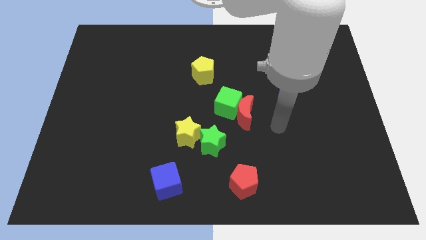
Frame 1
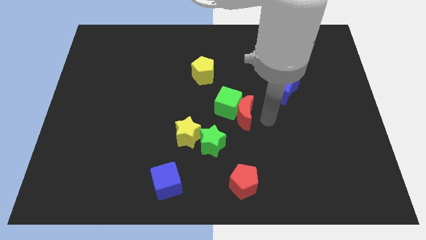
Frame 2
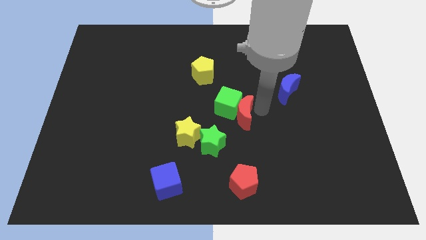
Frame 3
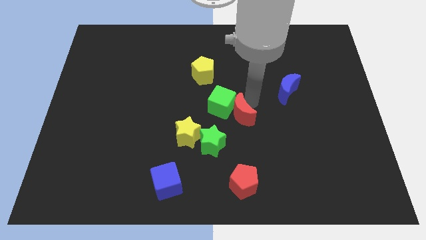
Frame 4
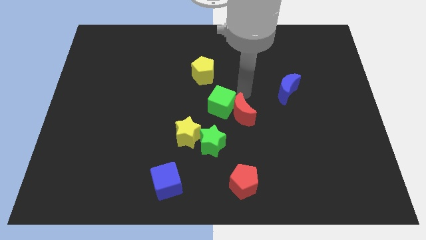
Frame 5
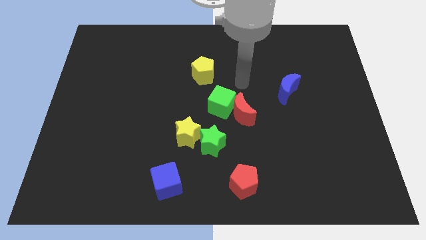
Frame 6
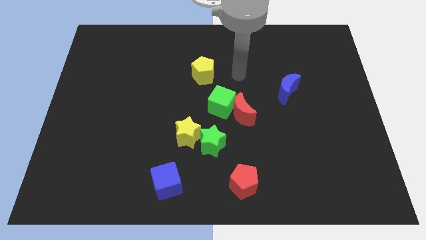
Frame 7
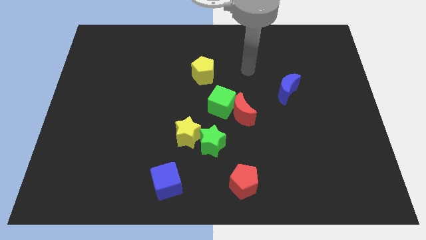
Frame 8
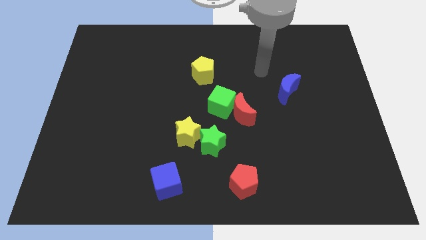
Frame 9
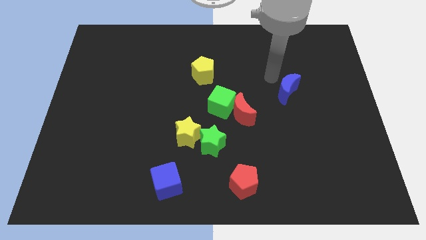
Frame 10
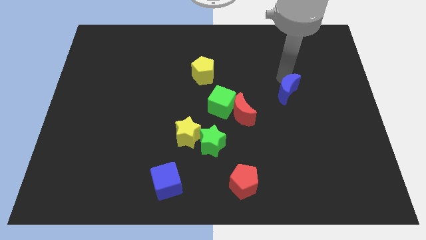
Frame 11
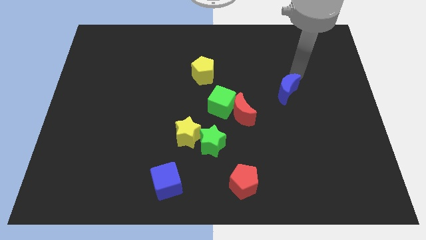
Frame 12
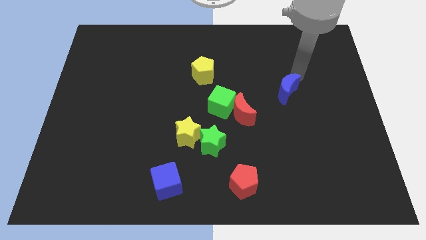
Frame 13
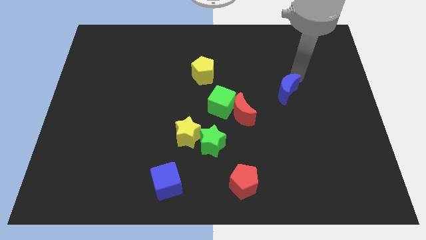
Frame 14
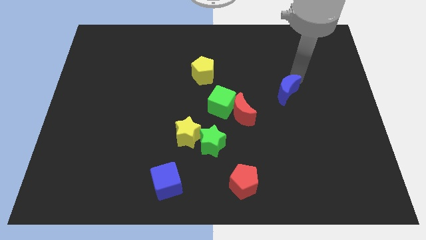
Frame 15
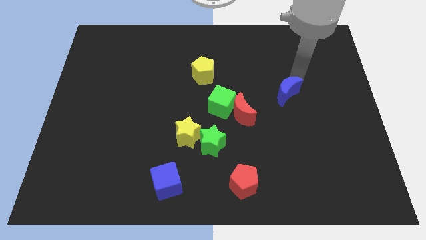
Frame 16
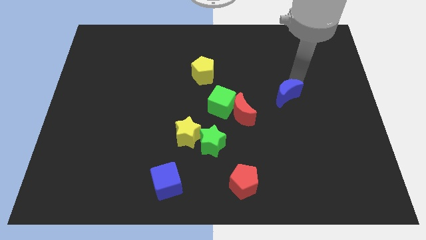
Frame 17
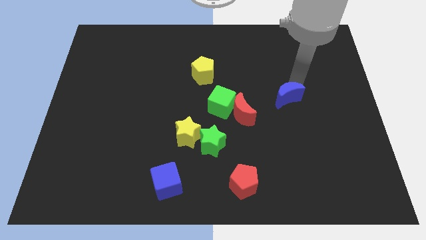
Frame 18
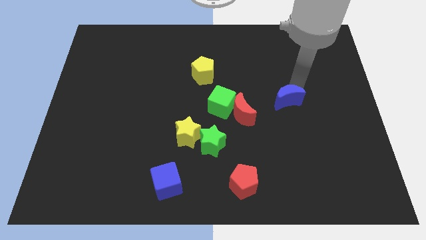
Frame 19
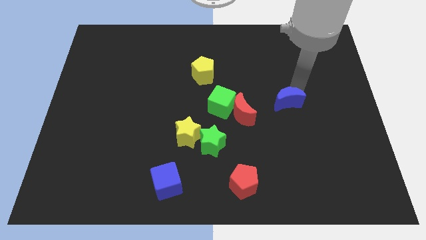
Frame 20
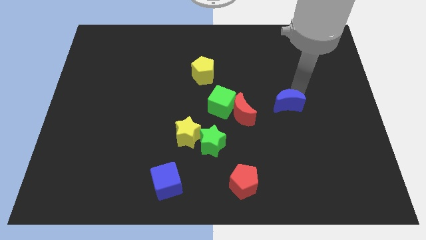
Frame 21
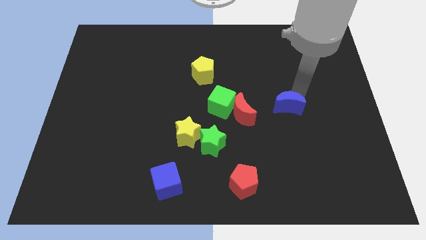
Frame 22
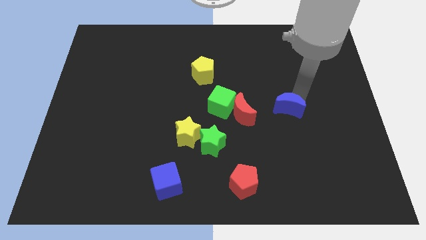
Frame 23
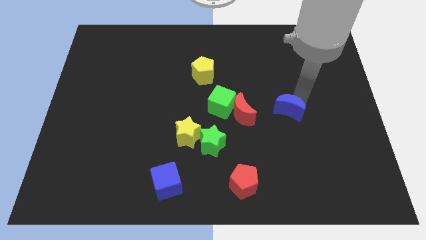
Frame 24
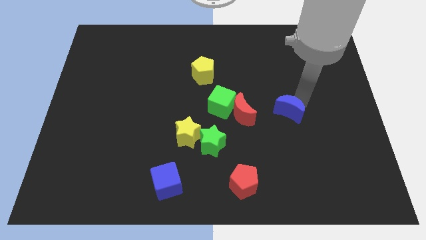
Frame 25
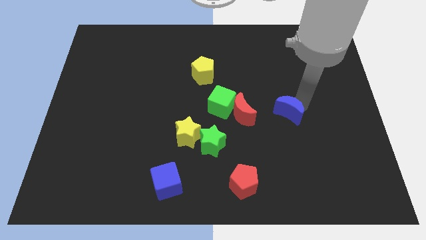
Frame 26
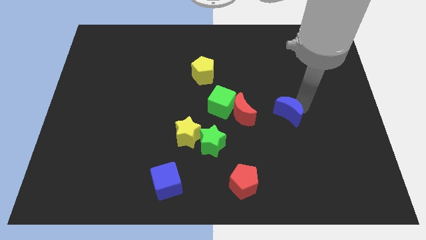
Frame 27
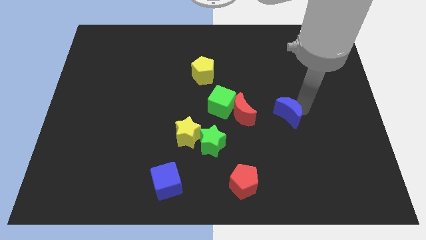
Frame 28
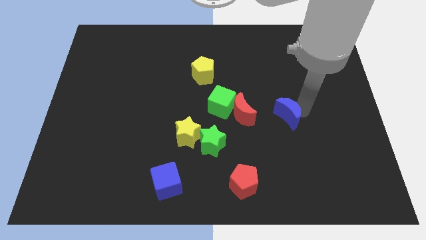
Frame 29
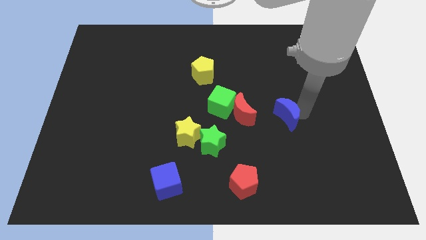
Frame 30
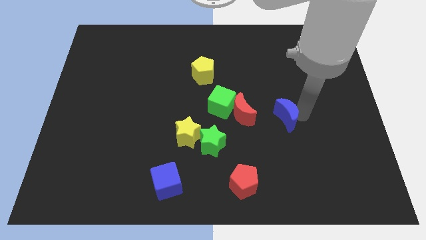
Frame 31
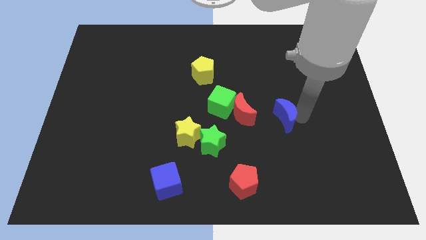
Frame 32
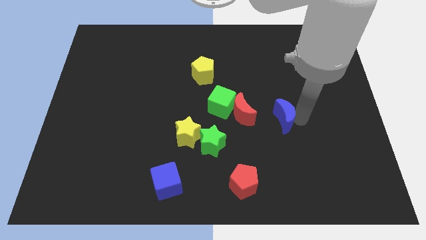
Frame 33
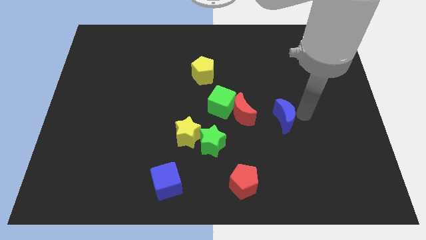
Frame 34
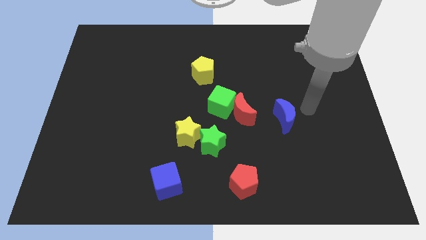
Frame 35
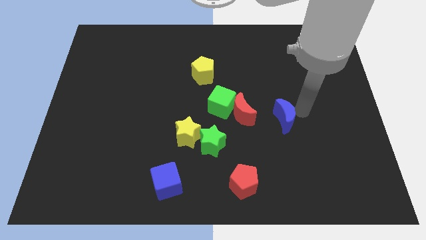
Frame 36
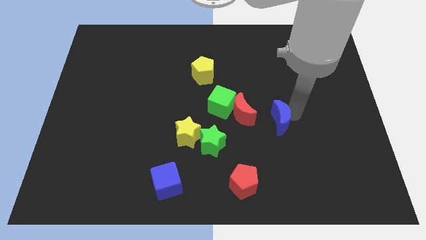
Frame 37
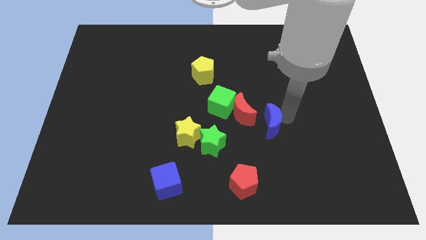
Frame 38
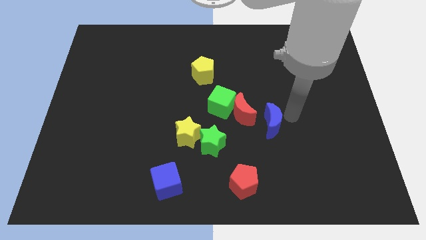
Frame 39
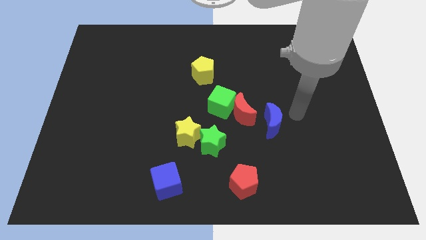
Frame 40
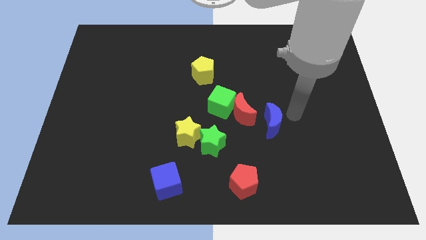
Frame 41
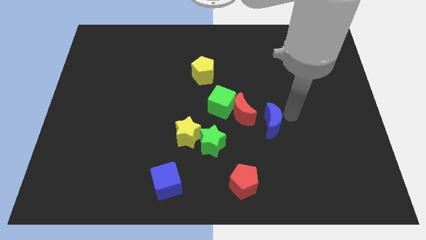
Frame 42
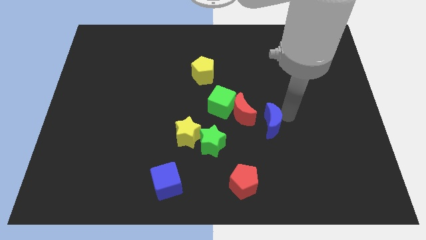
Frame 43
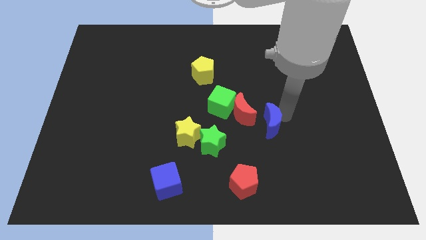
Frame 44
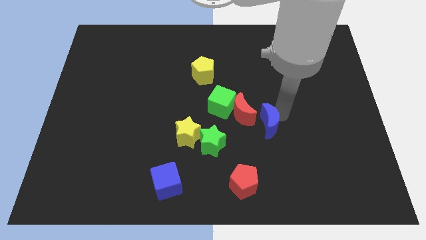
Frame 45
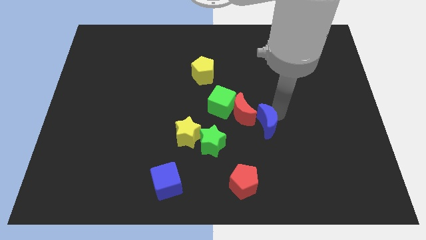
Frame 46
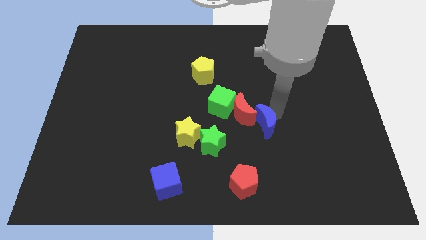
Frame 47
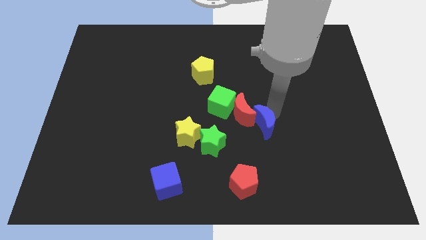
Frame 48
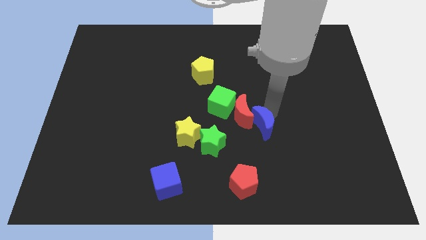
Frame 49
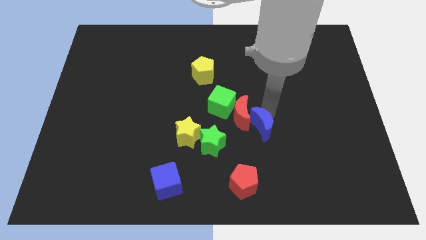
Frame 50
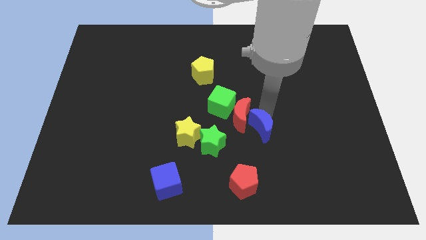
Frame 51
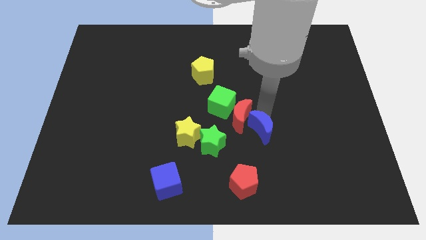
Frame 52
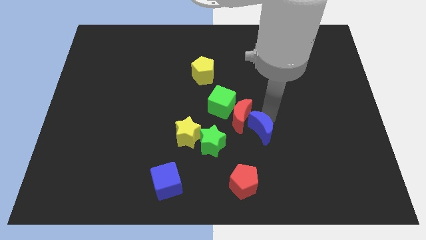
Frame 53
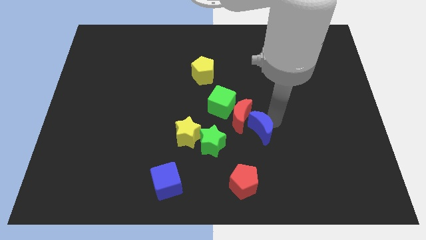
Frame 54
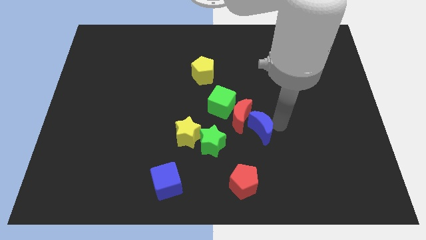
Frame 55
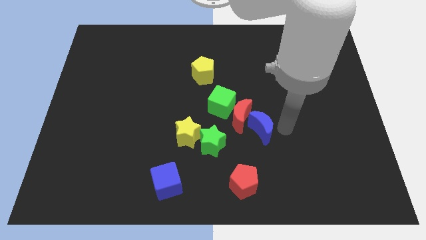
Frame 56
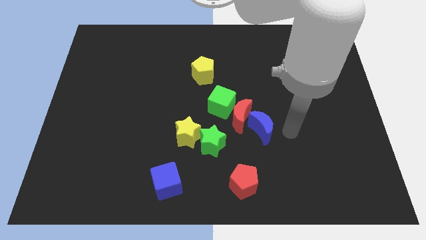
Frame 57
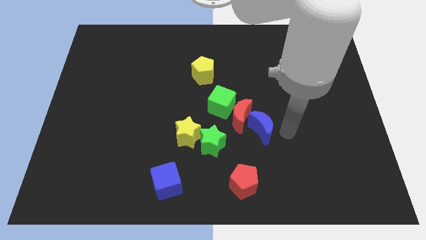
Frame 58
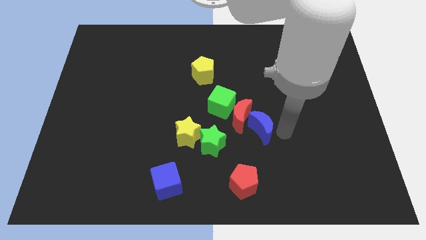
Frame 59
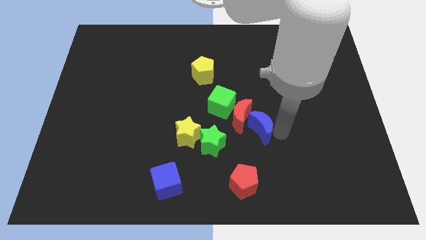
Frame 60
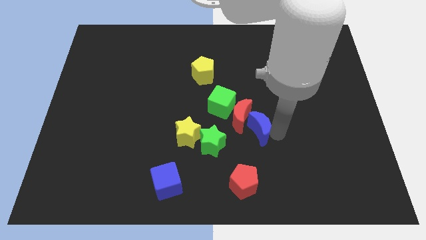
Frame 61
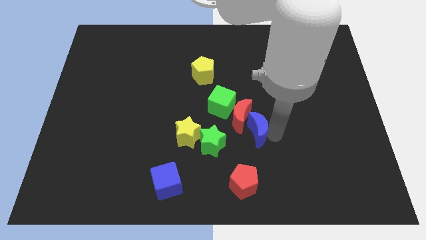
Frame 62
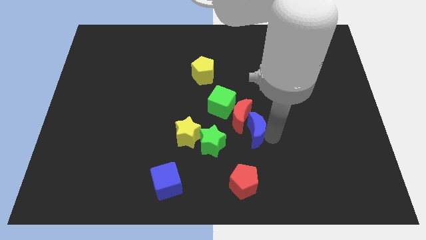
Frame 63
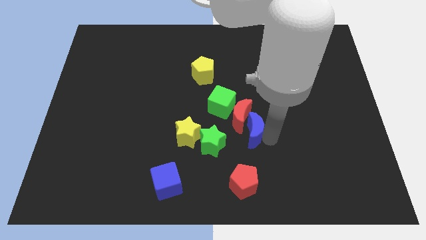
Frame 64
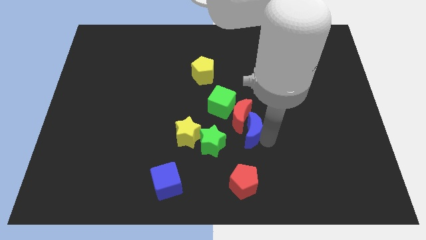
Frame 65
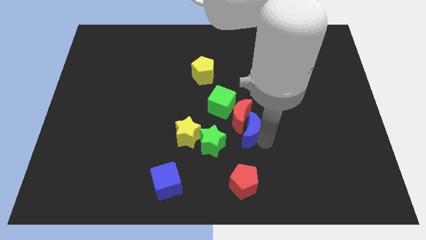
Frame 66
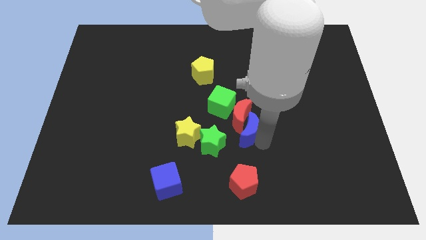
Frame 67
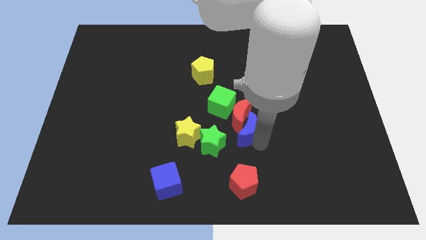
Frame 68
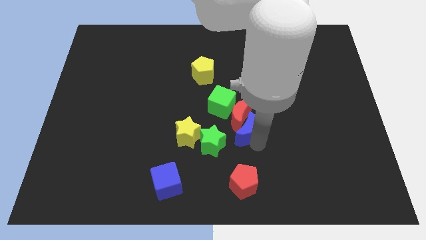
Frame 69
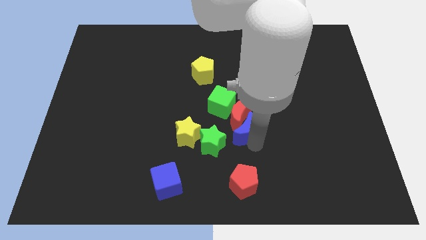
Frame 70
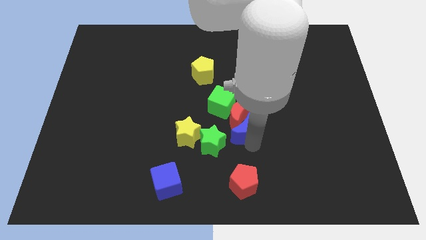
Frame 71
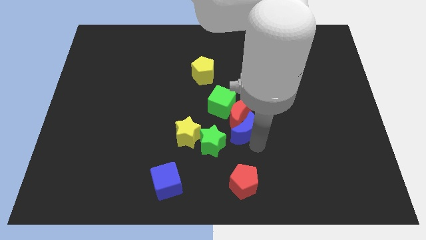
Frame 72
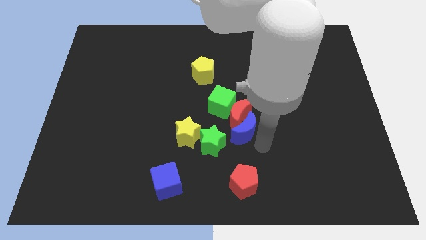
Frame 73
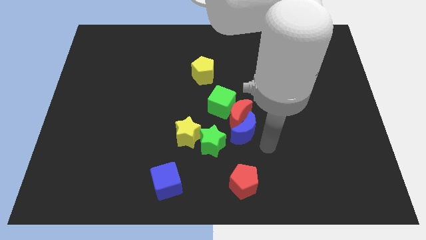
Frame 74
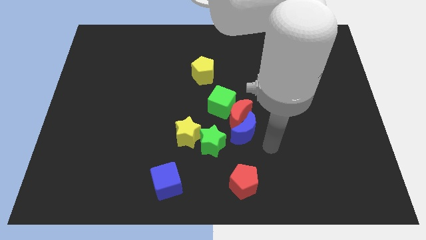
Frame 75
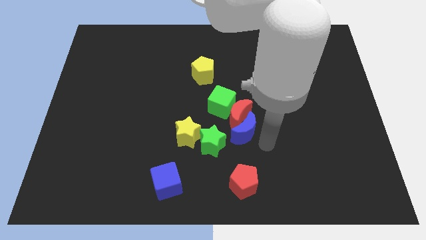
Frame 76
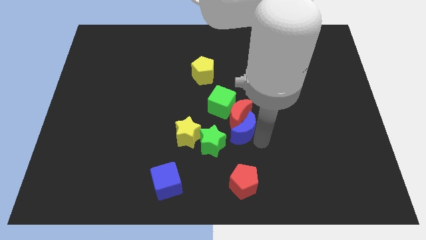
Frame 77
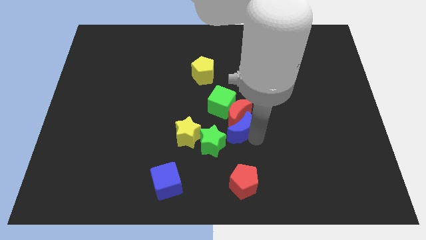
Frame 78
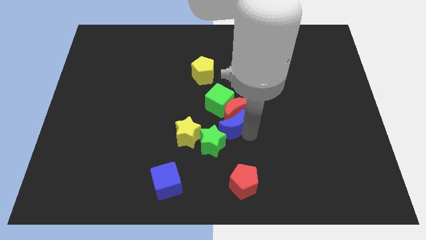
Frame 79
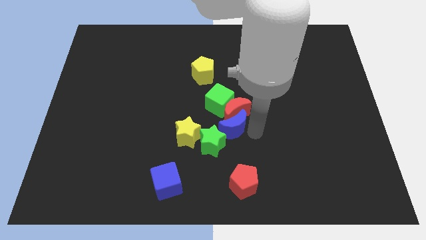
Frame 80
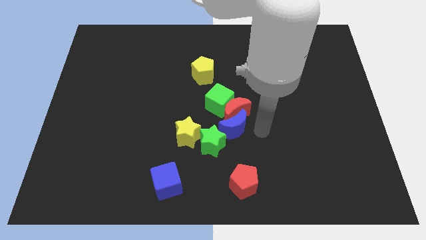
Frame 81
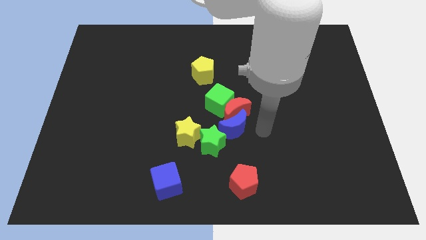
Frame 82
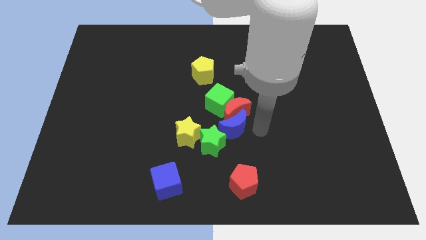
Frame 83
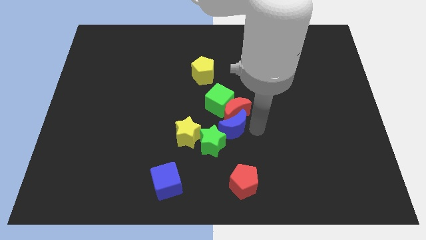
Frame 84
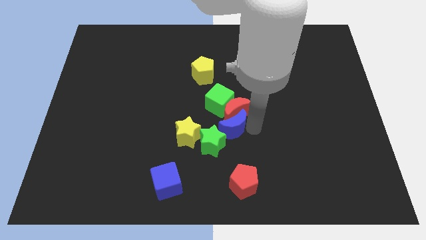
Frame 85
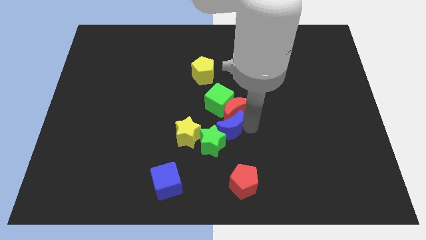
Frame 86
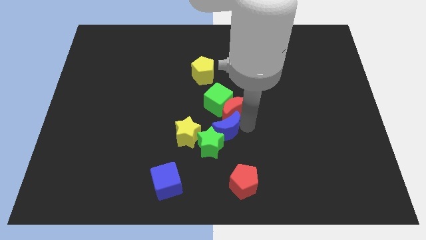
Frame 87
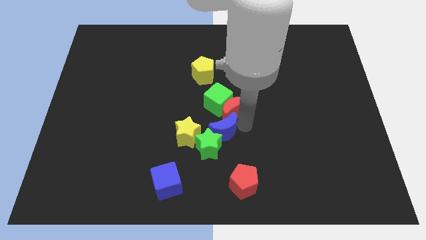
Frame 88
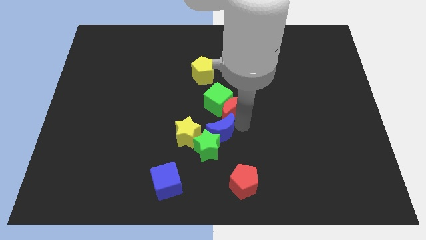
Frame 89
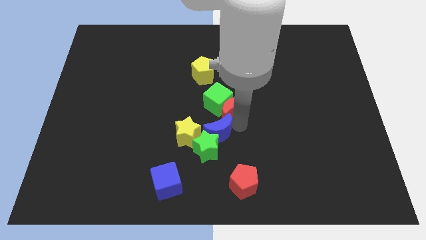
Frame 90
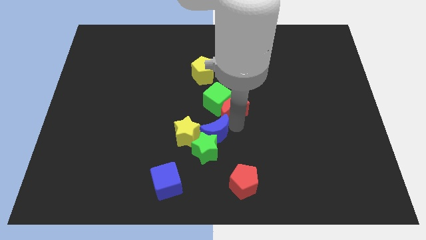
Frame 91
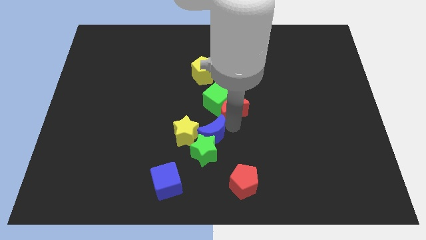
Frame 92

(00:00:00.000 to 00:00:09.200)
put the blue moon close to the yellow star
